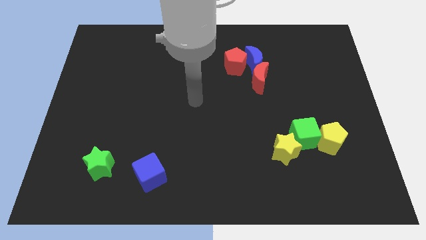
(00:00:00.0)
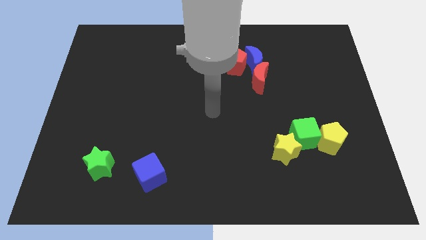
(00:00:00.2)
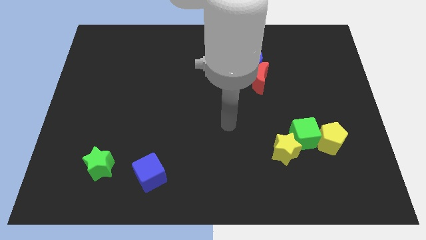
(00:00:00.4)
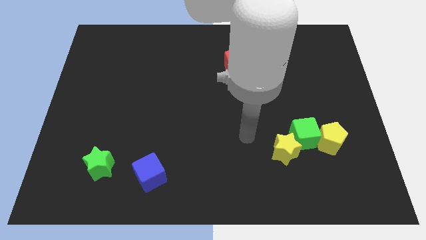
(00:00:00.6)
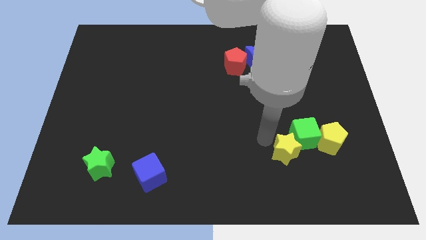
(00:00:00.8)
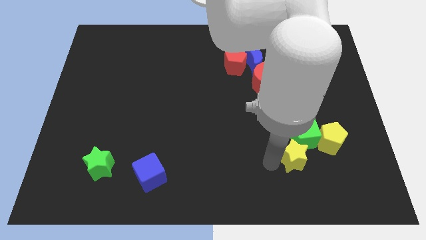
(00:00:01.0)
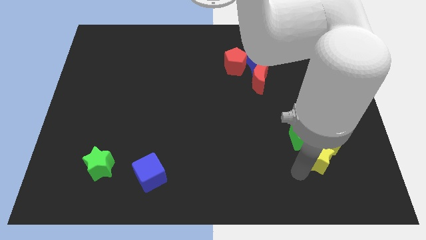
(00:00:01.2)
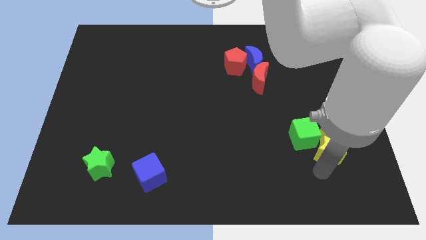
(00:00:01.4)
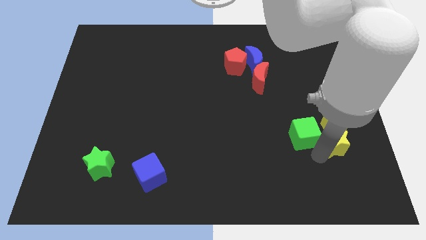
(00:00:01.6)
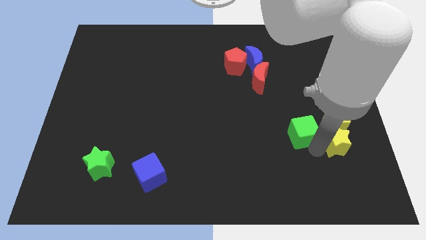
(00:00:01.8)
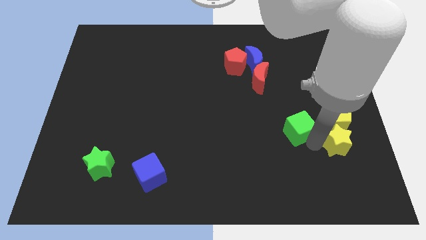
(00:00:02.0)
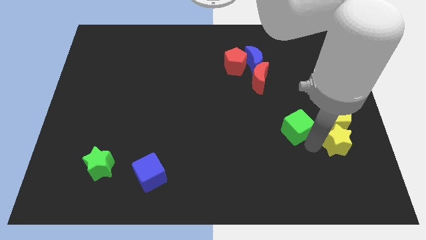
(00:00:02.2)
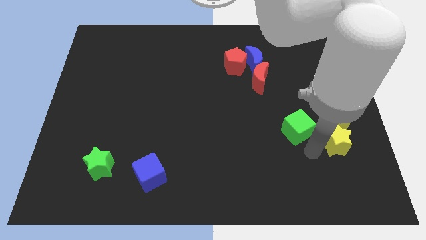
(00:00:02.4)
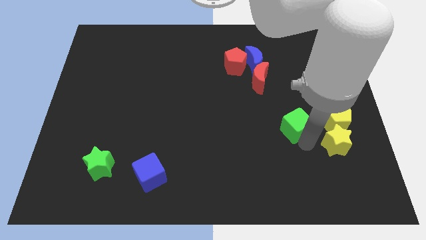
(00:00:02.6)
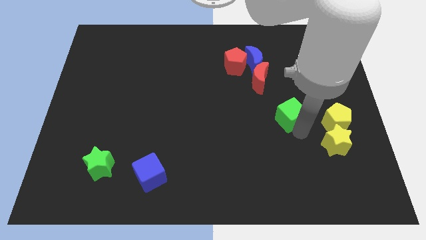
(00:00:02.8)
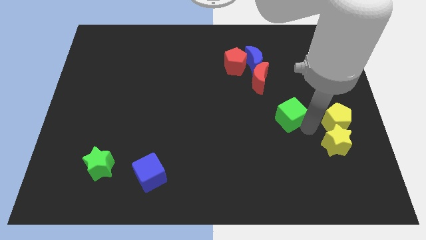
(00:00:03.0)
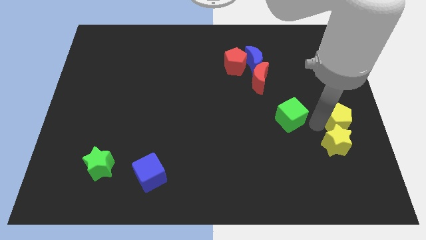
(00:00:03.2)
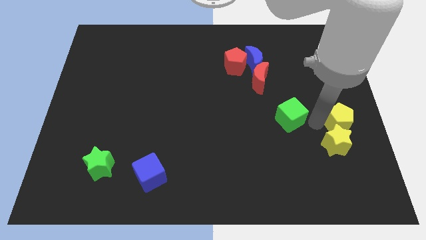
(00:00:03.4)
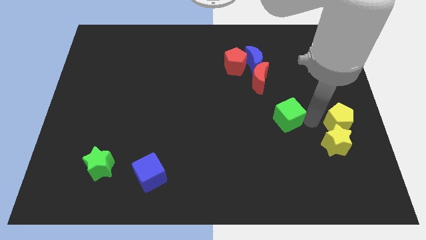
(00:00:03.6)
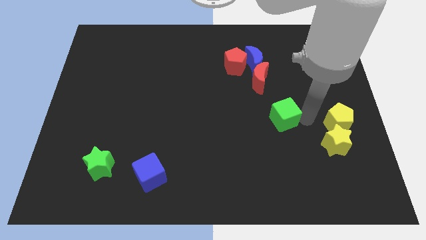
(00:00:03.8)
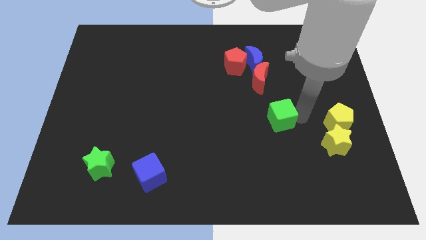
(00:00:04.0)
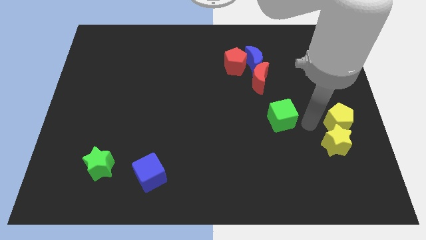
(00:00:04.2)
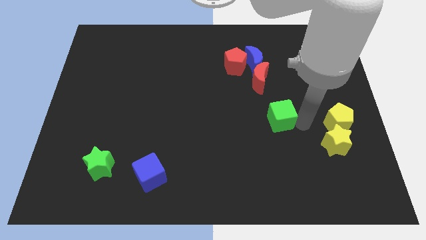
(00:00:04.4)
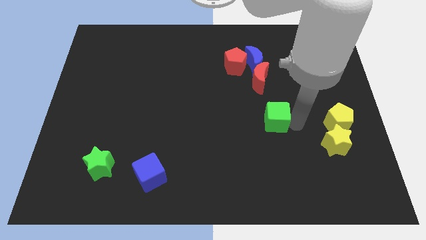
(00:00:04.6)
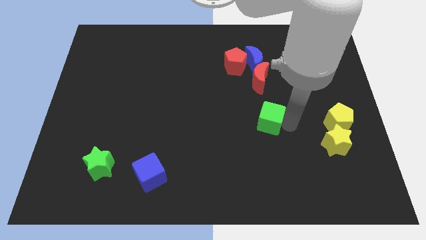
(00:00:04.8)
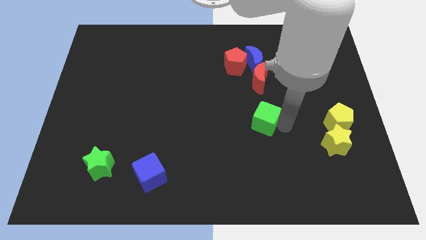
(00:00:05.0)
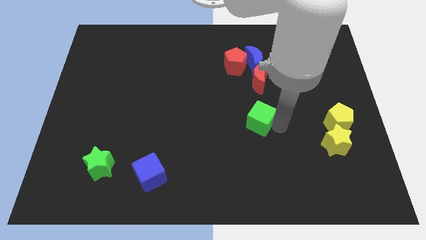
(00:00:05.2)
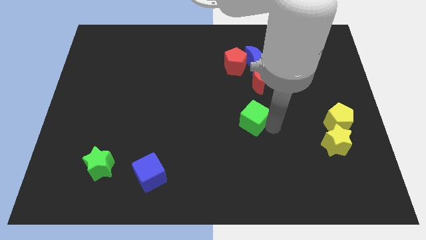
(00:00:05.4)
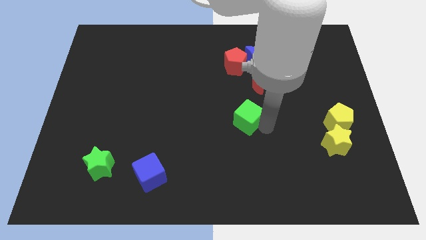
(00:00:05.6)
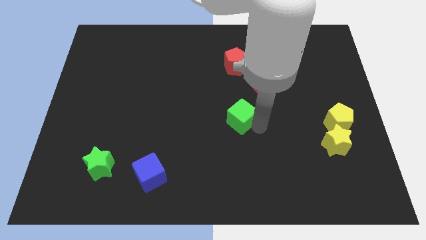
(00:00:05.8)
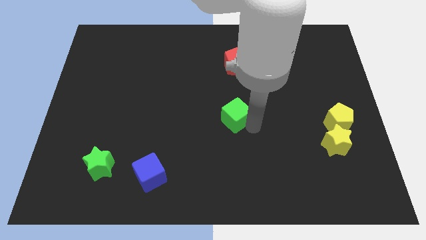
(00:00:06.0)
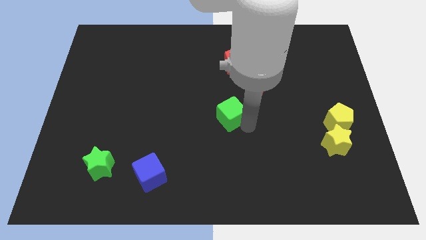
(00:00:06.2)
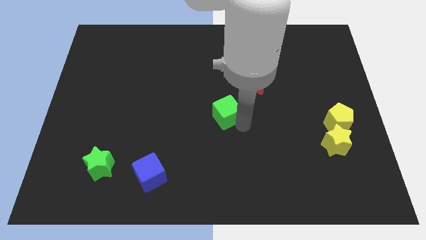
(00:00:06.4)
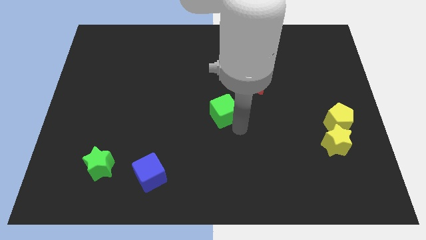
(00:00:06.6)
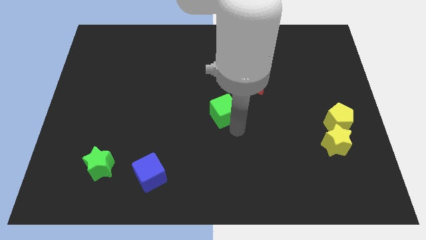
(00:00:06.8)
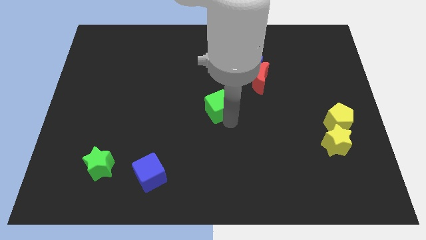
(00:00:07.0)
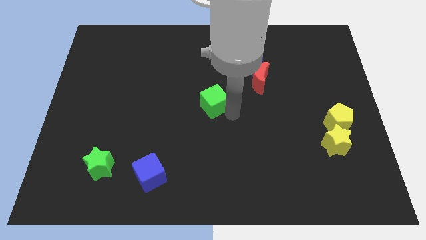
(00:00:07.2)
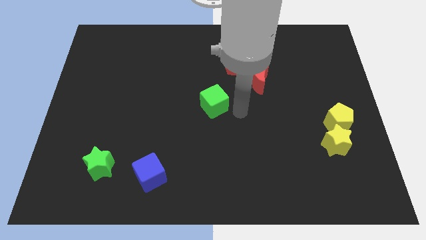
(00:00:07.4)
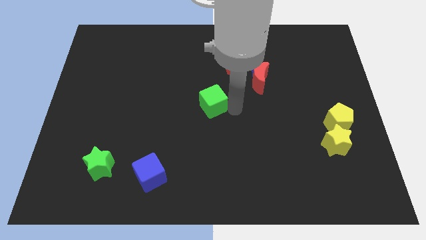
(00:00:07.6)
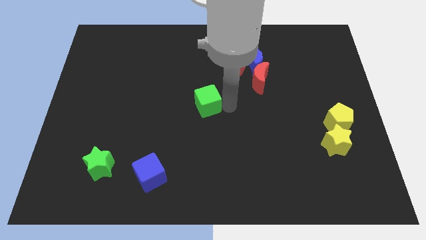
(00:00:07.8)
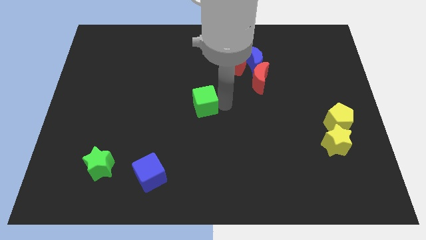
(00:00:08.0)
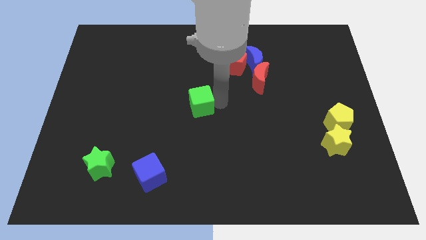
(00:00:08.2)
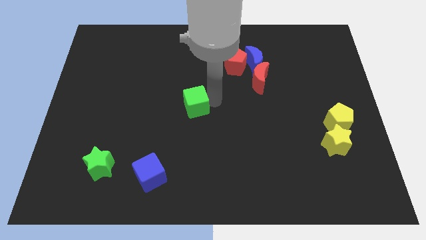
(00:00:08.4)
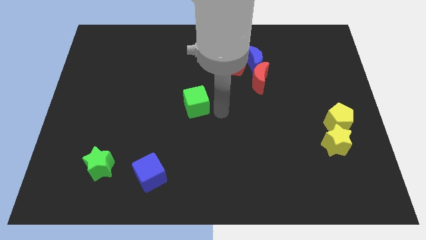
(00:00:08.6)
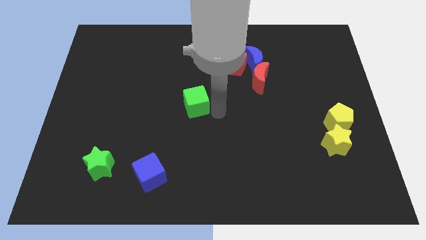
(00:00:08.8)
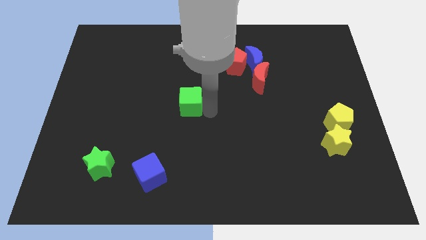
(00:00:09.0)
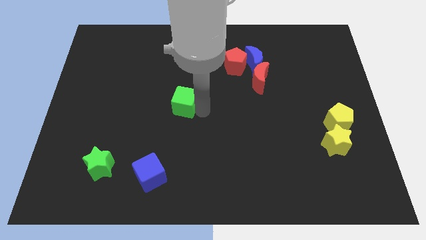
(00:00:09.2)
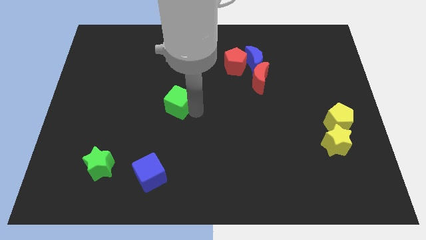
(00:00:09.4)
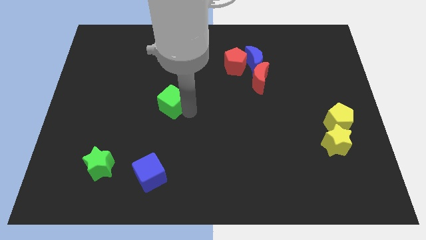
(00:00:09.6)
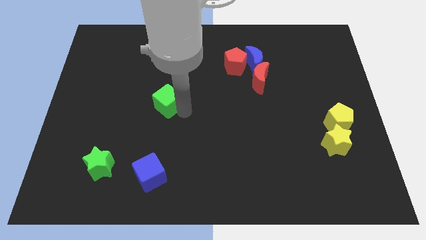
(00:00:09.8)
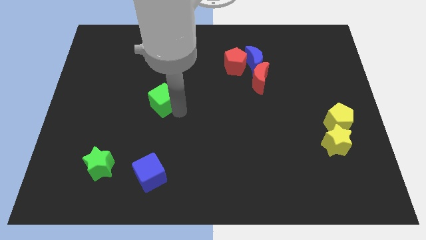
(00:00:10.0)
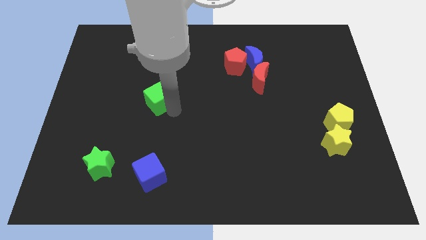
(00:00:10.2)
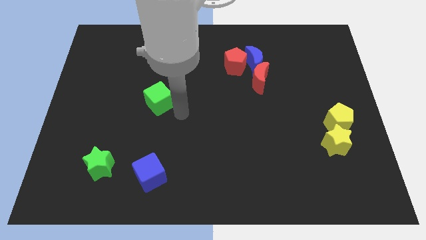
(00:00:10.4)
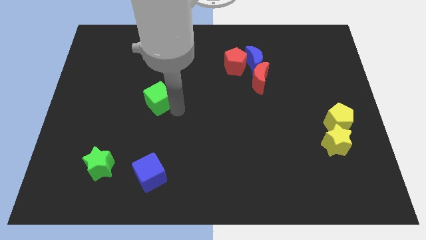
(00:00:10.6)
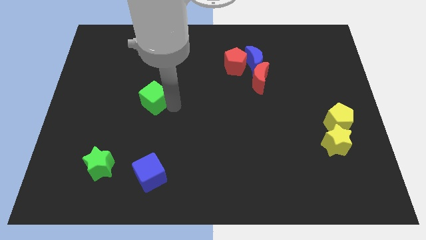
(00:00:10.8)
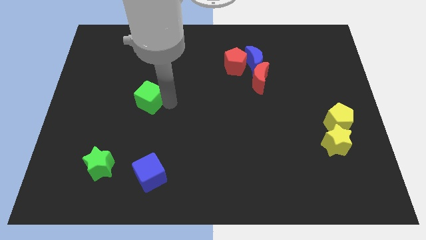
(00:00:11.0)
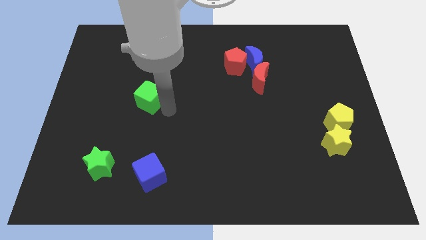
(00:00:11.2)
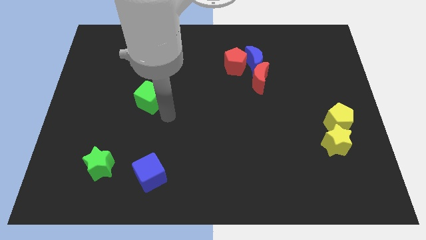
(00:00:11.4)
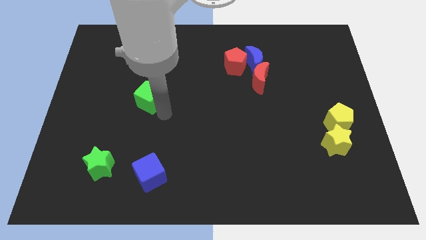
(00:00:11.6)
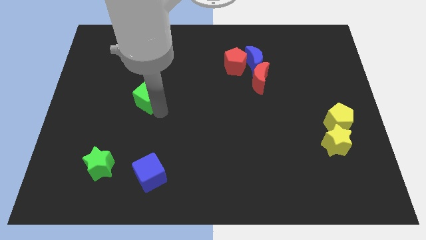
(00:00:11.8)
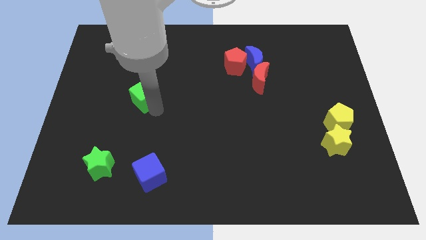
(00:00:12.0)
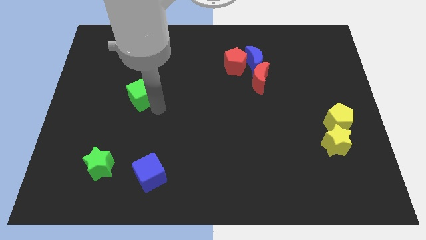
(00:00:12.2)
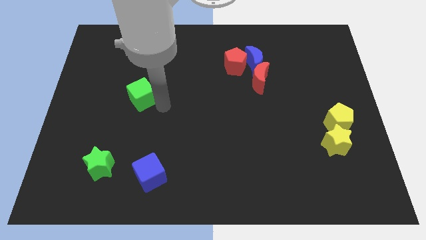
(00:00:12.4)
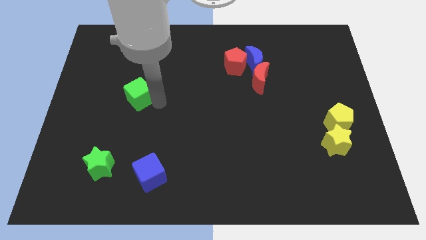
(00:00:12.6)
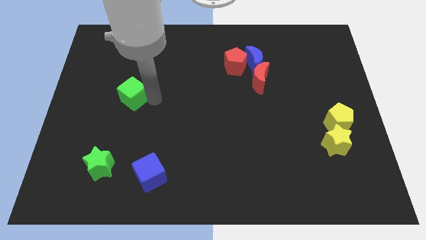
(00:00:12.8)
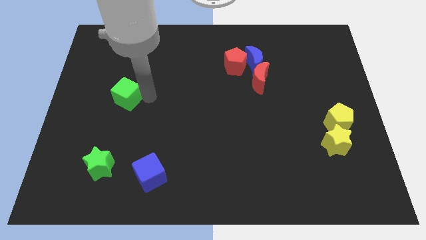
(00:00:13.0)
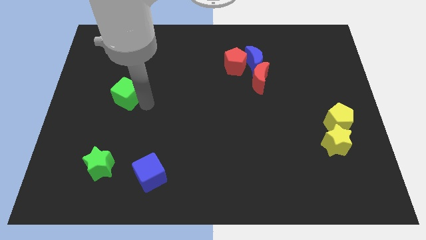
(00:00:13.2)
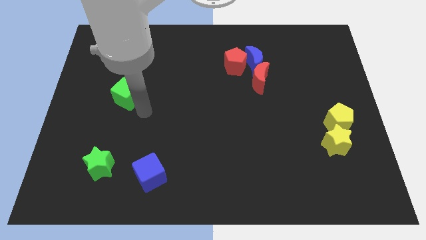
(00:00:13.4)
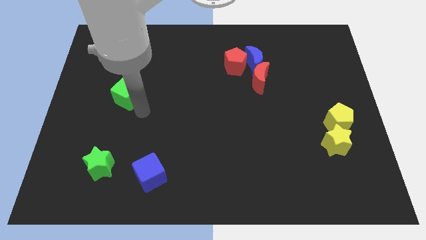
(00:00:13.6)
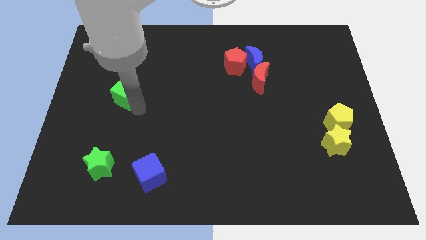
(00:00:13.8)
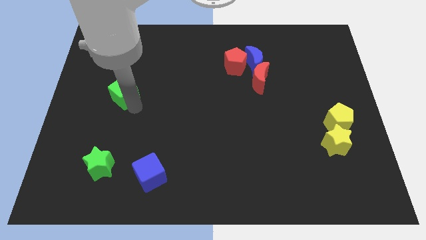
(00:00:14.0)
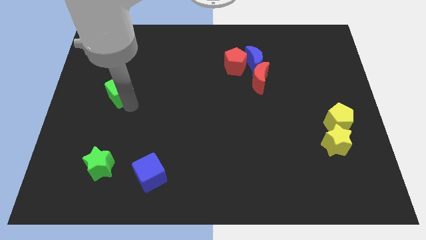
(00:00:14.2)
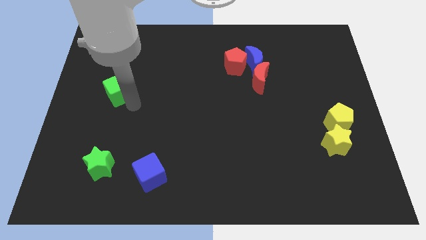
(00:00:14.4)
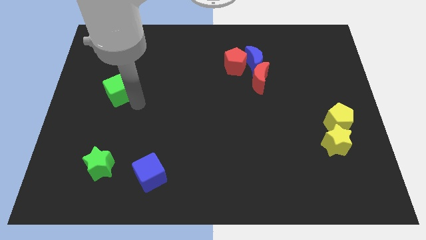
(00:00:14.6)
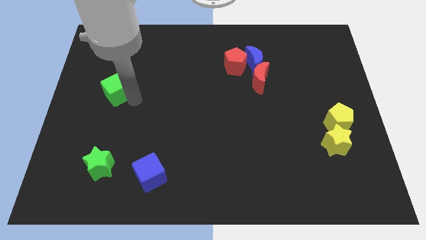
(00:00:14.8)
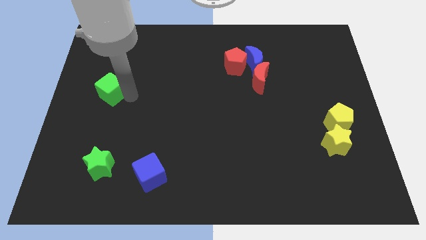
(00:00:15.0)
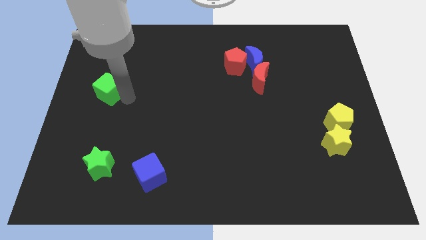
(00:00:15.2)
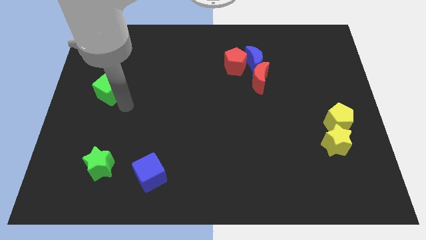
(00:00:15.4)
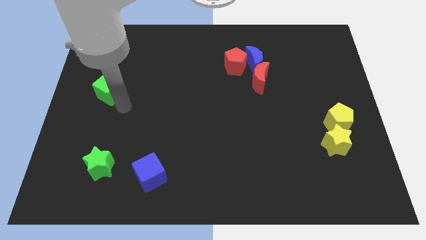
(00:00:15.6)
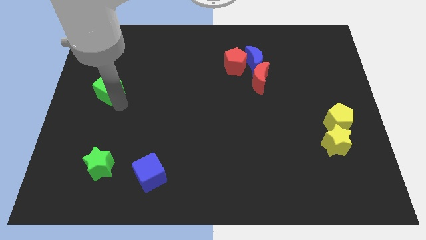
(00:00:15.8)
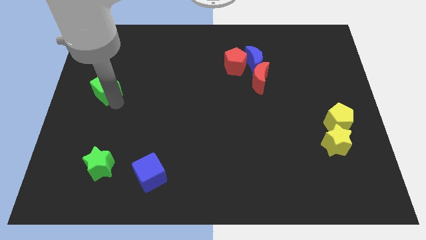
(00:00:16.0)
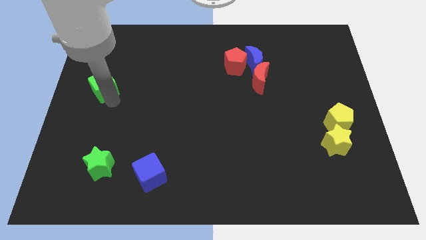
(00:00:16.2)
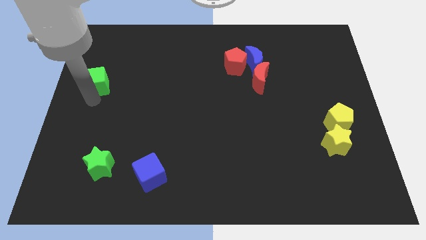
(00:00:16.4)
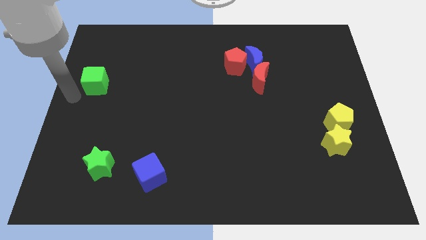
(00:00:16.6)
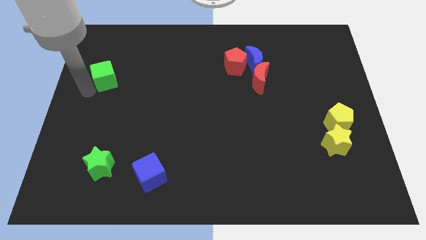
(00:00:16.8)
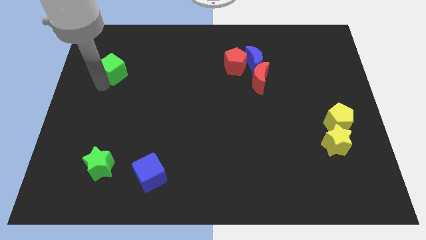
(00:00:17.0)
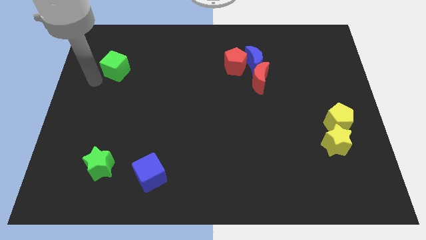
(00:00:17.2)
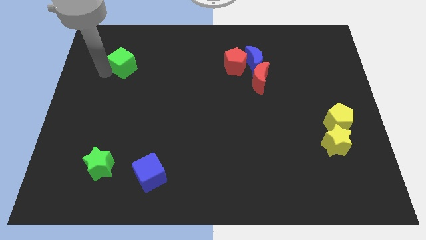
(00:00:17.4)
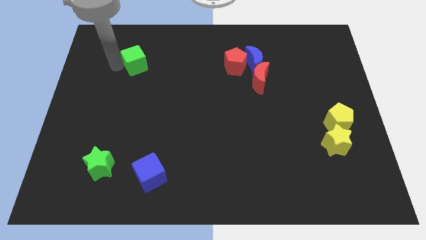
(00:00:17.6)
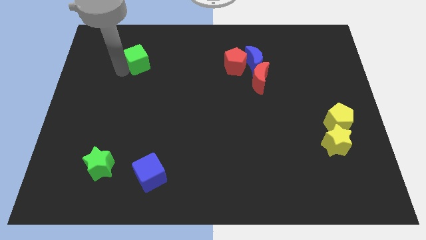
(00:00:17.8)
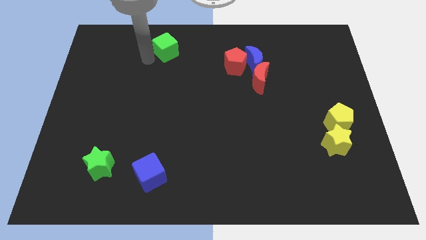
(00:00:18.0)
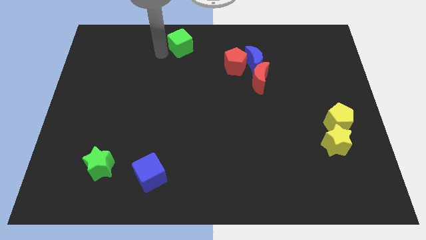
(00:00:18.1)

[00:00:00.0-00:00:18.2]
put the green cube to the top
